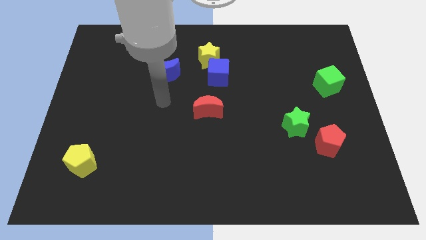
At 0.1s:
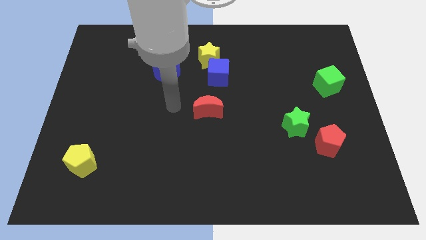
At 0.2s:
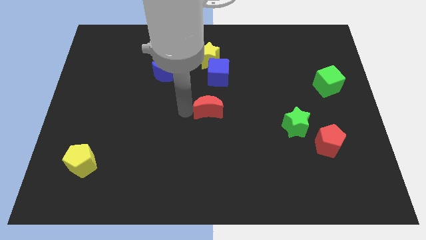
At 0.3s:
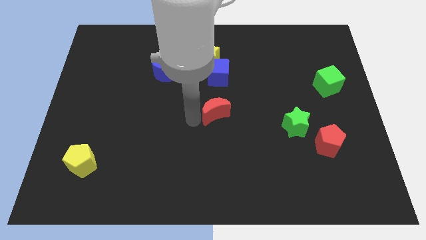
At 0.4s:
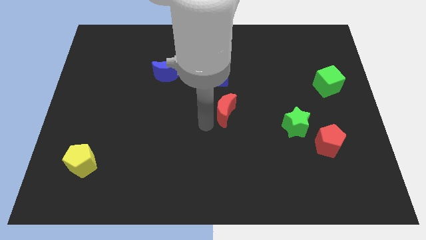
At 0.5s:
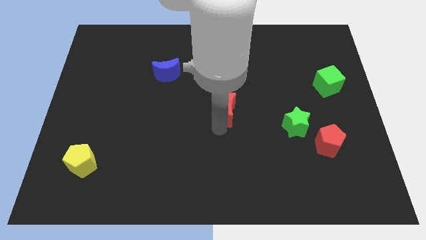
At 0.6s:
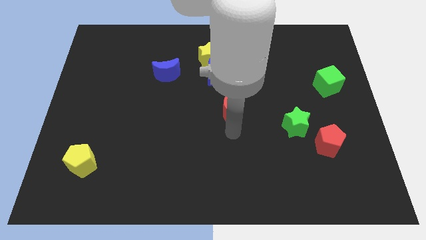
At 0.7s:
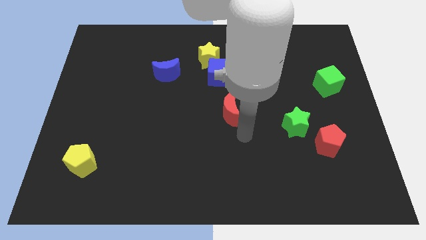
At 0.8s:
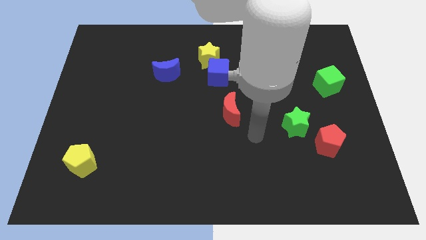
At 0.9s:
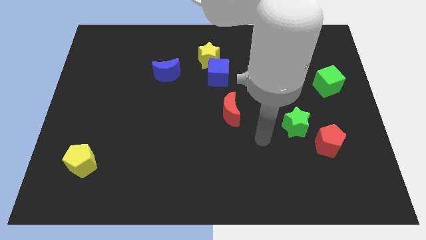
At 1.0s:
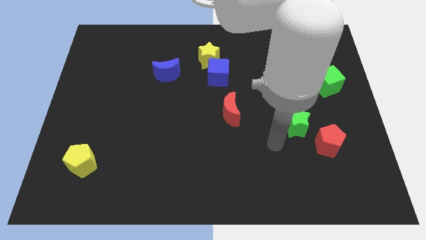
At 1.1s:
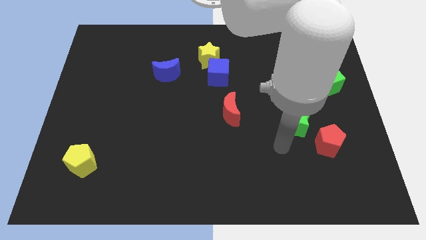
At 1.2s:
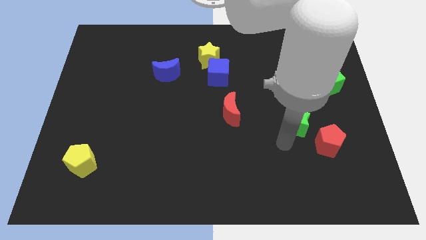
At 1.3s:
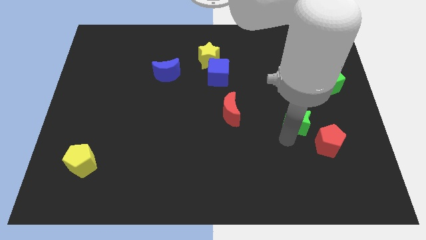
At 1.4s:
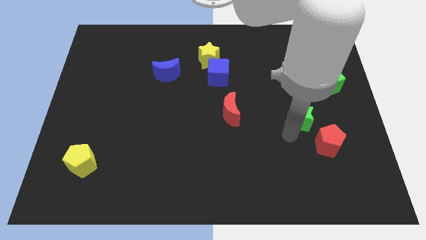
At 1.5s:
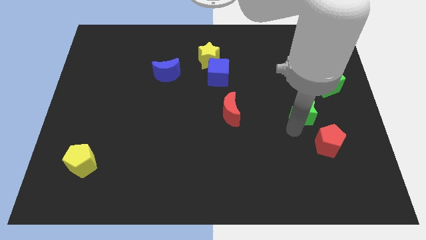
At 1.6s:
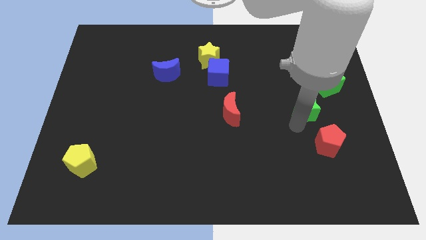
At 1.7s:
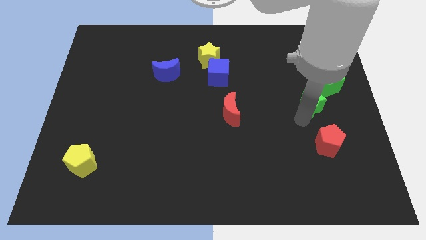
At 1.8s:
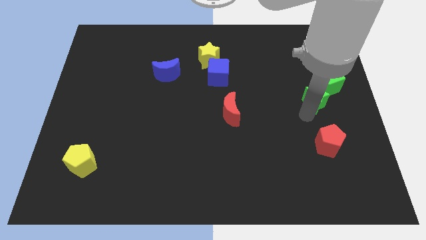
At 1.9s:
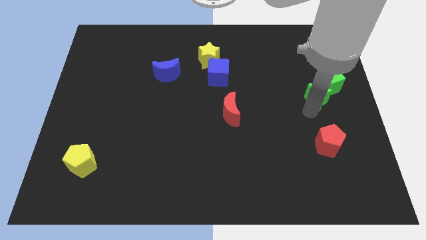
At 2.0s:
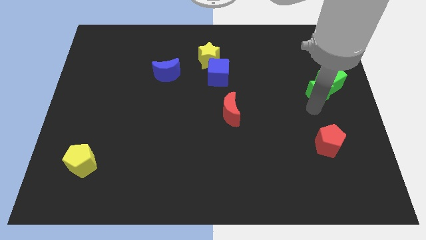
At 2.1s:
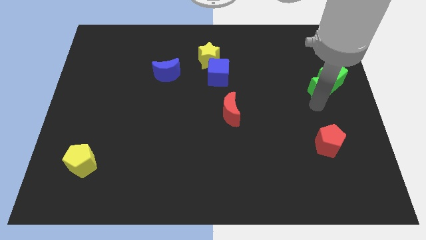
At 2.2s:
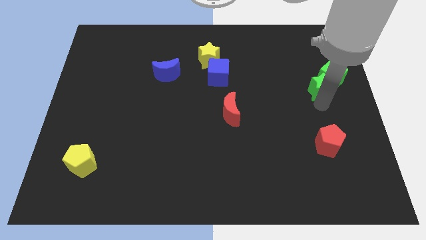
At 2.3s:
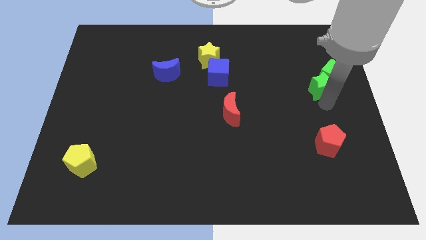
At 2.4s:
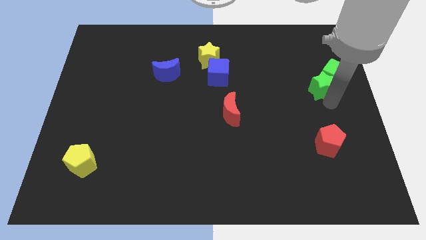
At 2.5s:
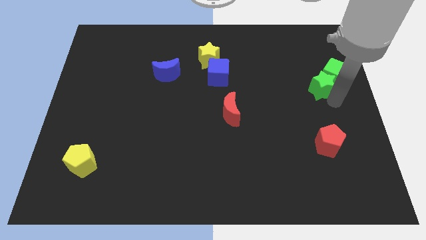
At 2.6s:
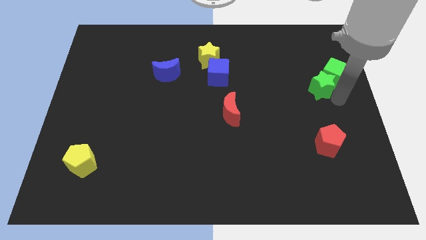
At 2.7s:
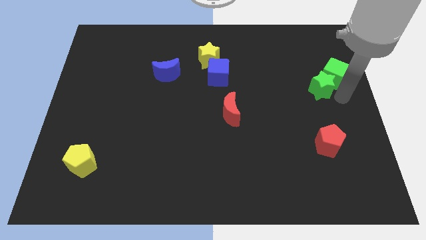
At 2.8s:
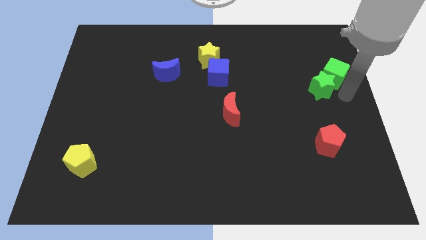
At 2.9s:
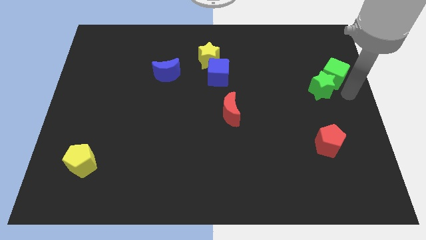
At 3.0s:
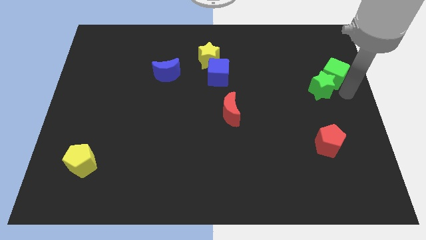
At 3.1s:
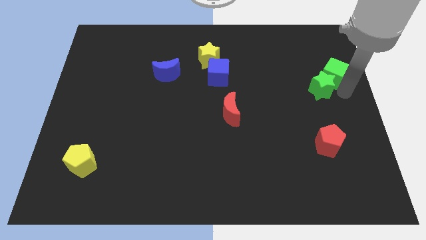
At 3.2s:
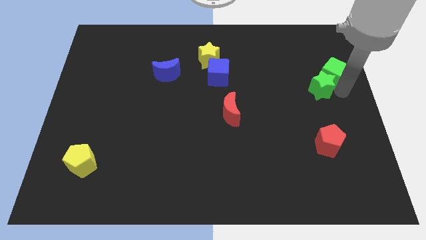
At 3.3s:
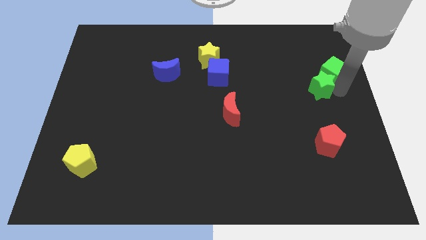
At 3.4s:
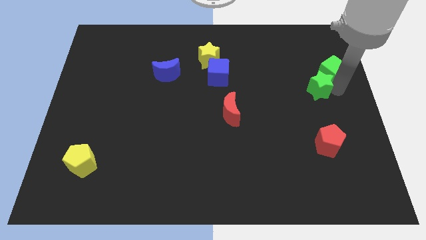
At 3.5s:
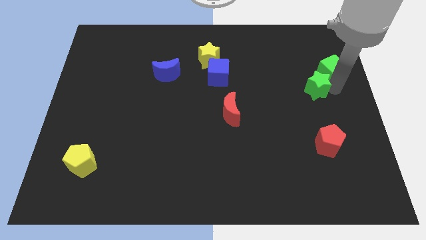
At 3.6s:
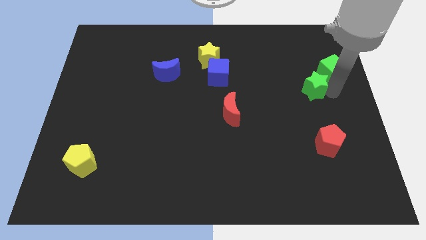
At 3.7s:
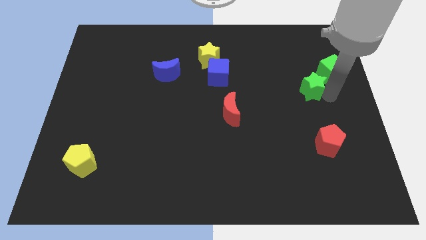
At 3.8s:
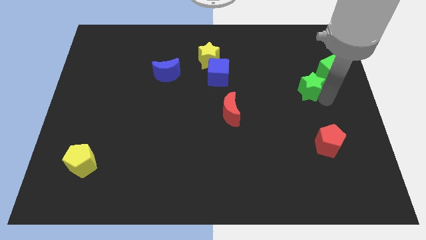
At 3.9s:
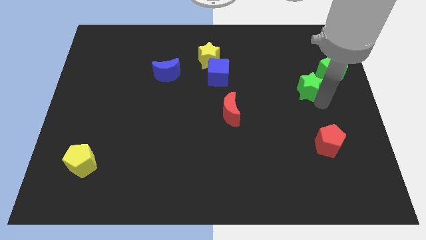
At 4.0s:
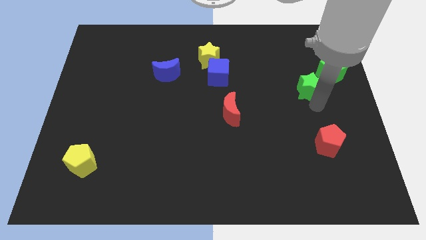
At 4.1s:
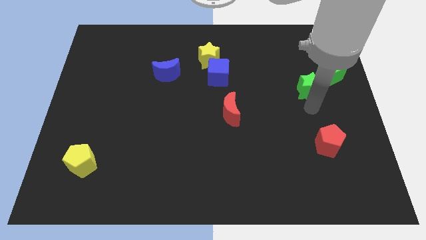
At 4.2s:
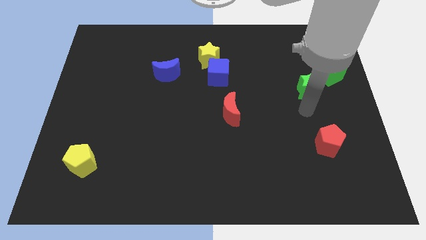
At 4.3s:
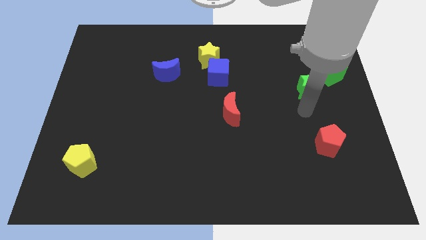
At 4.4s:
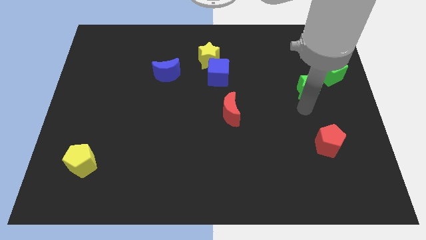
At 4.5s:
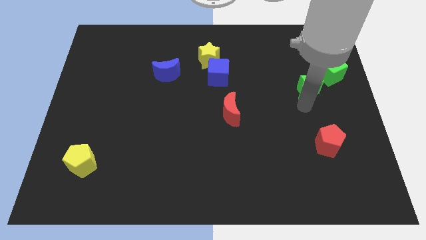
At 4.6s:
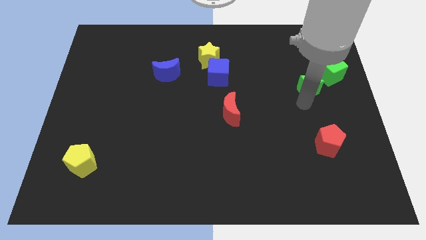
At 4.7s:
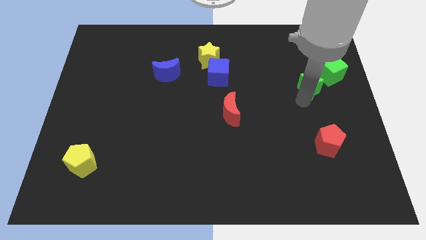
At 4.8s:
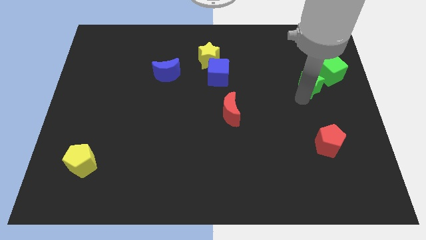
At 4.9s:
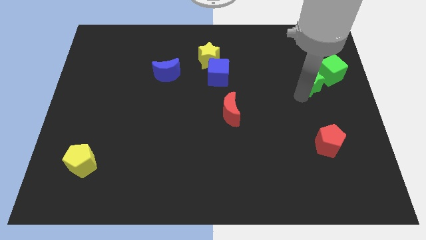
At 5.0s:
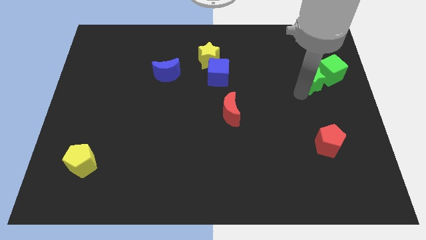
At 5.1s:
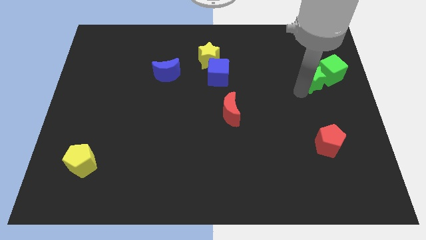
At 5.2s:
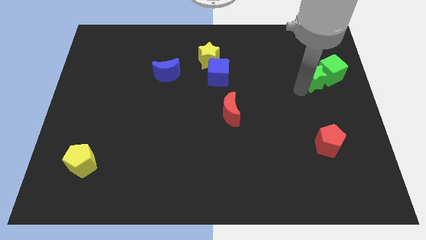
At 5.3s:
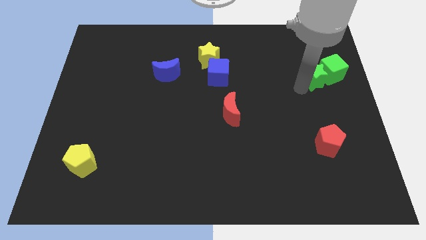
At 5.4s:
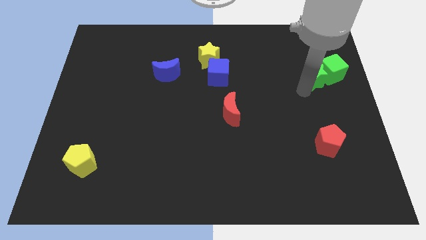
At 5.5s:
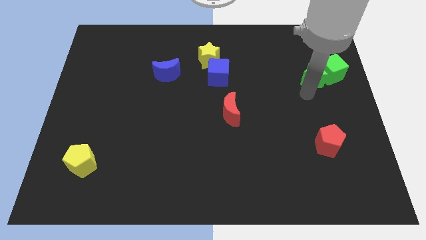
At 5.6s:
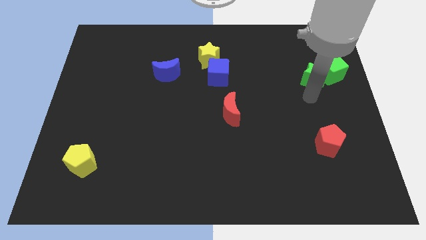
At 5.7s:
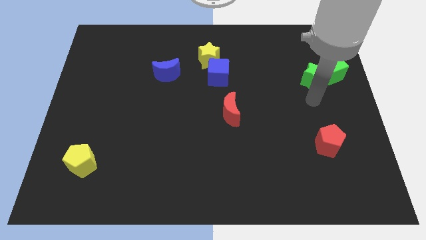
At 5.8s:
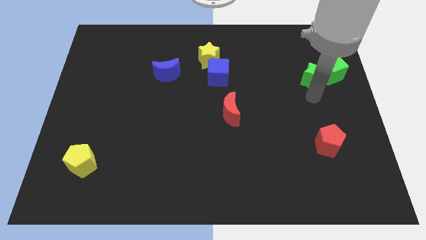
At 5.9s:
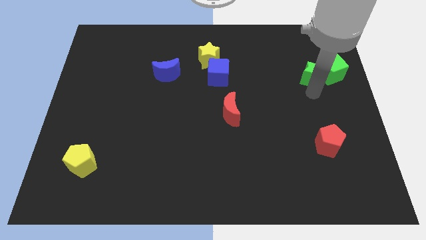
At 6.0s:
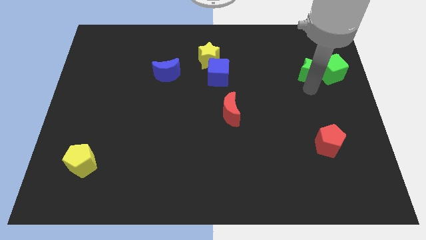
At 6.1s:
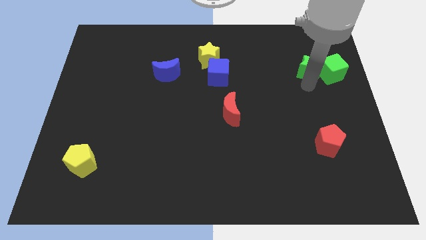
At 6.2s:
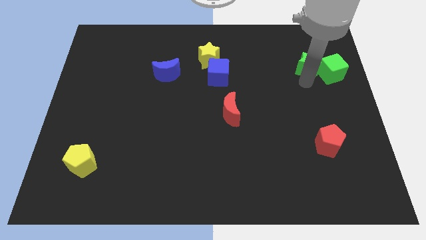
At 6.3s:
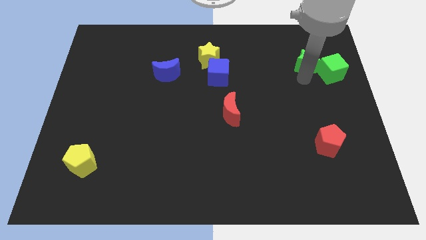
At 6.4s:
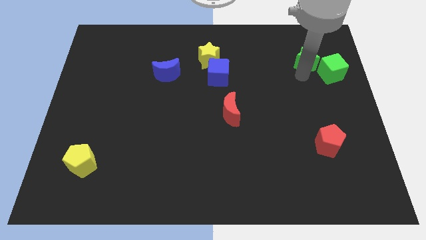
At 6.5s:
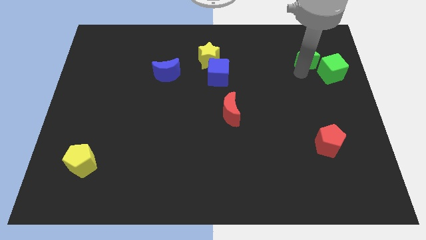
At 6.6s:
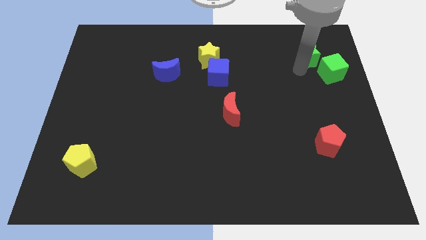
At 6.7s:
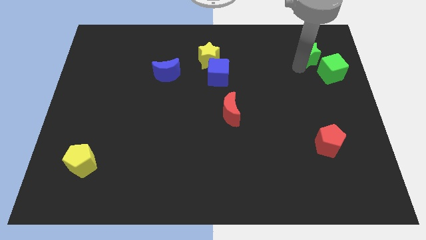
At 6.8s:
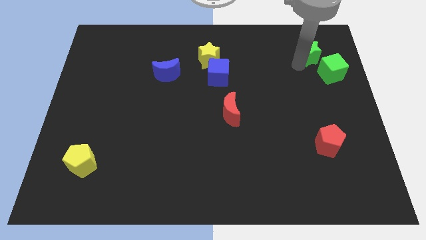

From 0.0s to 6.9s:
push the green star above the green cube

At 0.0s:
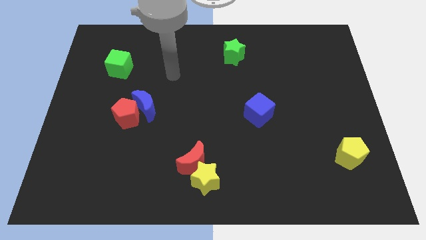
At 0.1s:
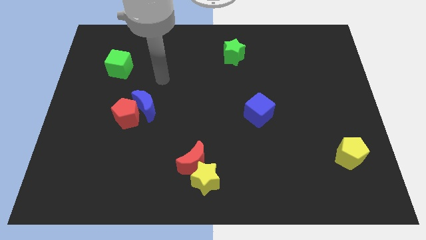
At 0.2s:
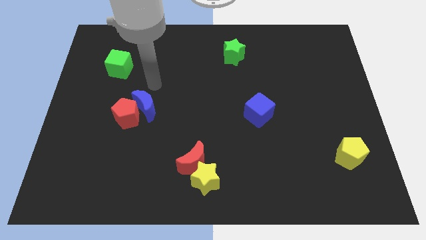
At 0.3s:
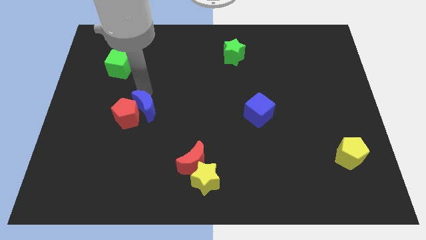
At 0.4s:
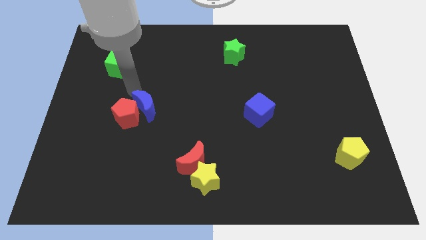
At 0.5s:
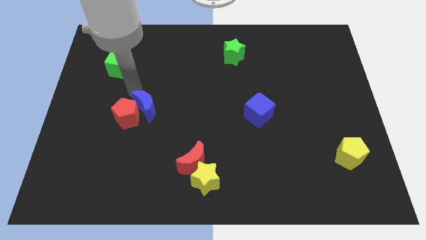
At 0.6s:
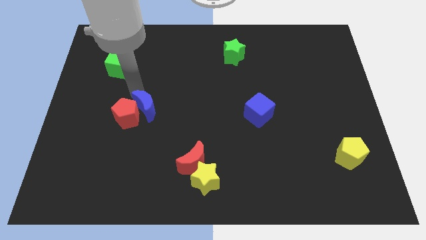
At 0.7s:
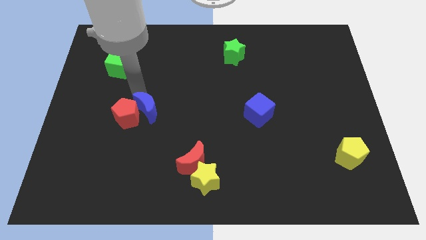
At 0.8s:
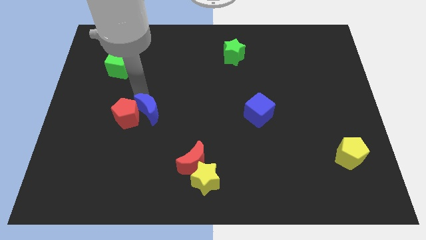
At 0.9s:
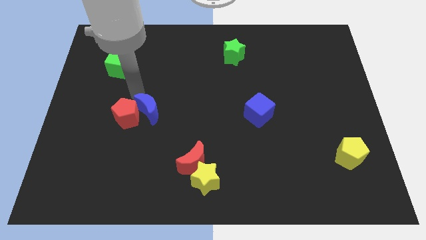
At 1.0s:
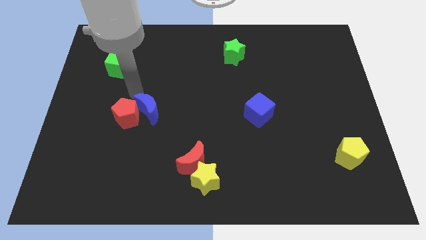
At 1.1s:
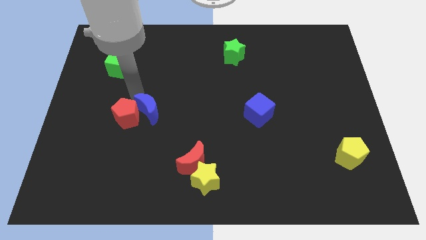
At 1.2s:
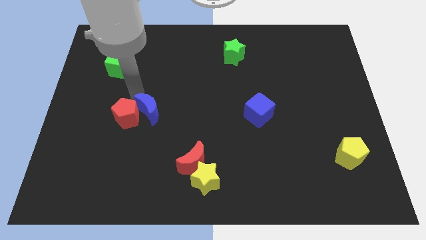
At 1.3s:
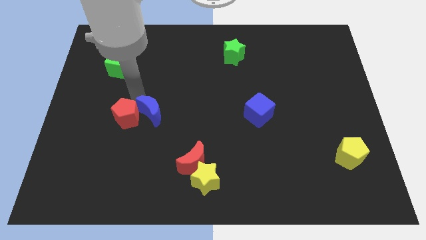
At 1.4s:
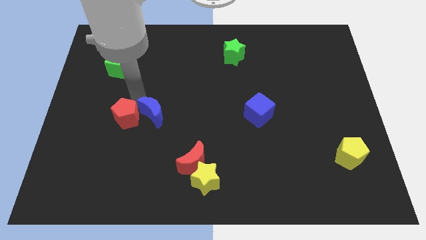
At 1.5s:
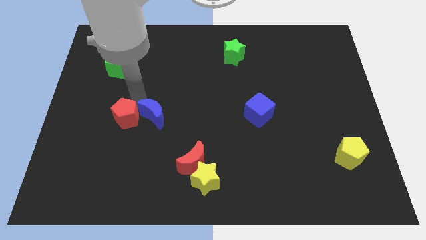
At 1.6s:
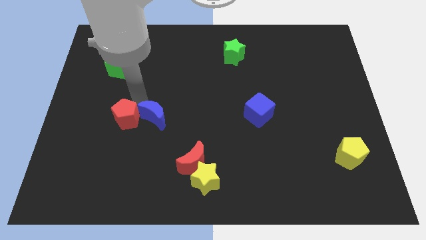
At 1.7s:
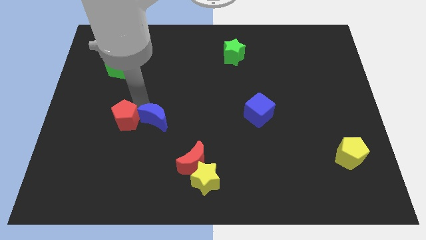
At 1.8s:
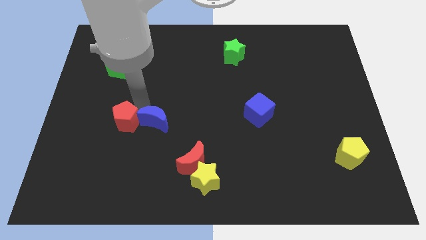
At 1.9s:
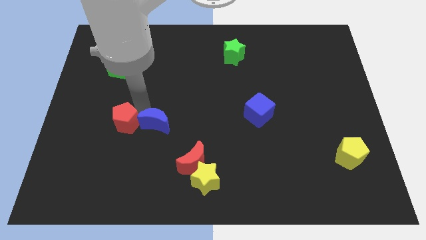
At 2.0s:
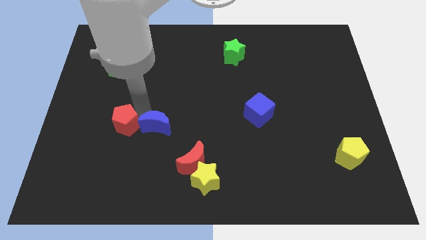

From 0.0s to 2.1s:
put the blue moon to the top left of the red moon
